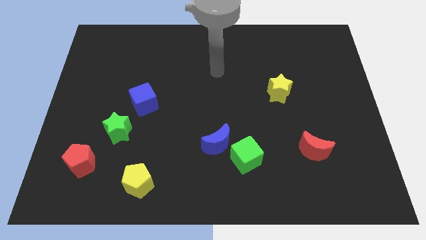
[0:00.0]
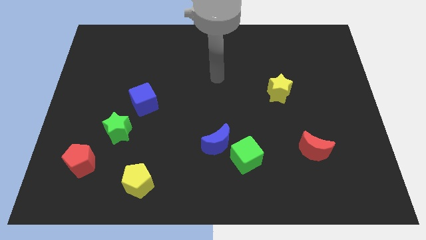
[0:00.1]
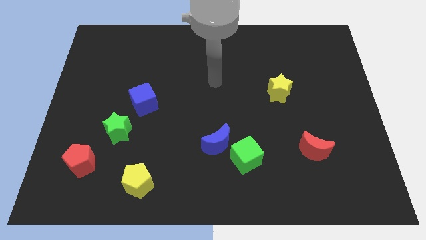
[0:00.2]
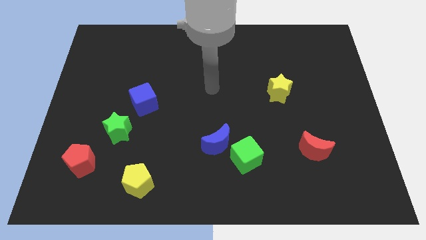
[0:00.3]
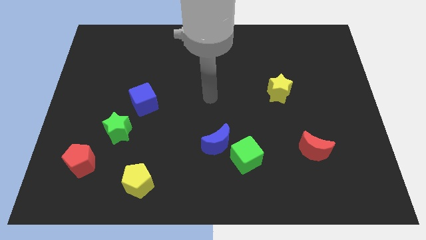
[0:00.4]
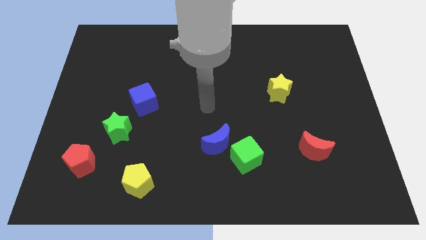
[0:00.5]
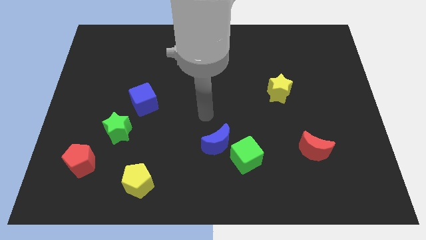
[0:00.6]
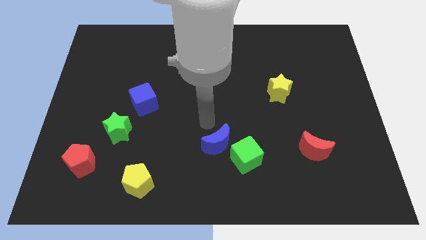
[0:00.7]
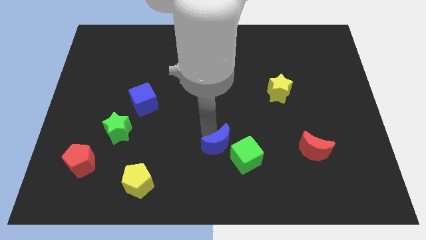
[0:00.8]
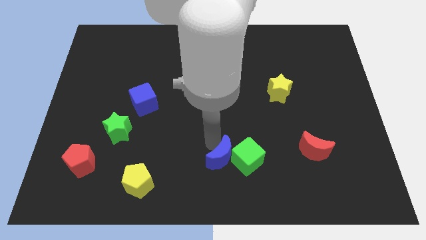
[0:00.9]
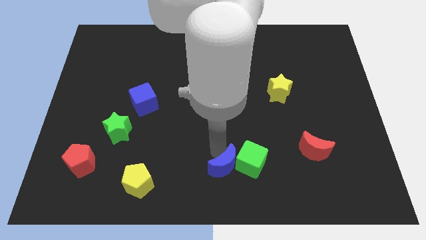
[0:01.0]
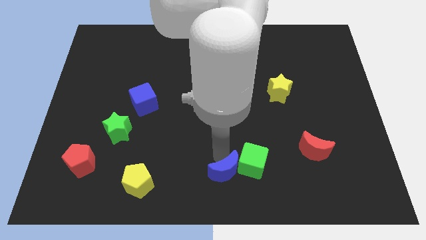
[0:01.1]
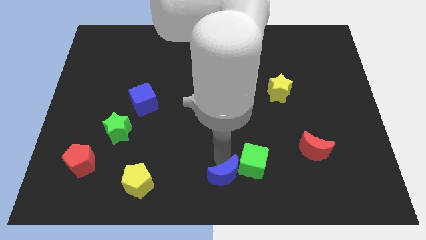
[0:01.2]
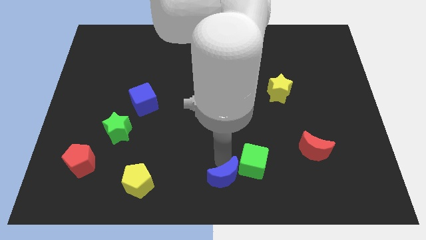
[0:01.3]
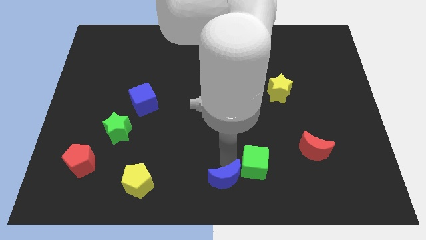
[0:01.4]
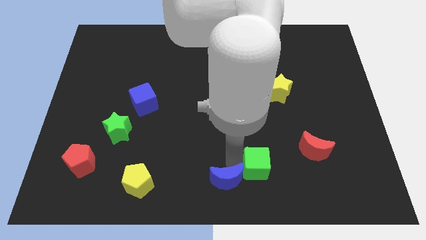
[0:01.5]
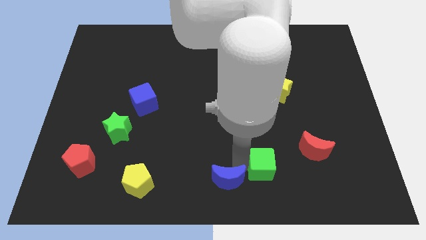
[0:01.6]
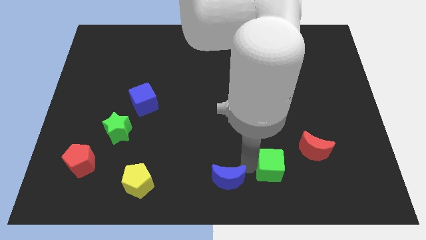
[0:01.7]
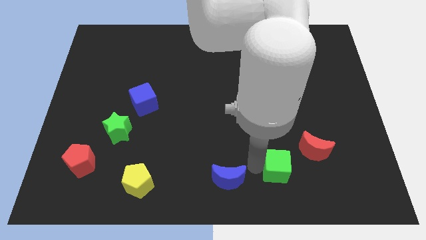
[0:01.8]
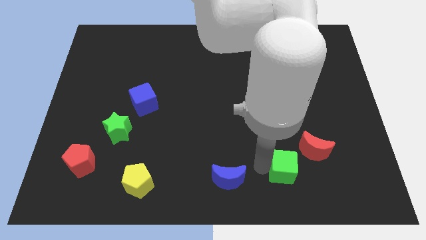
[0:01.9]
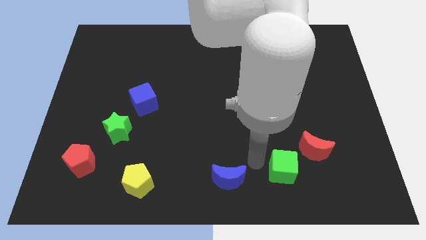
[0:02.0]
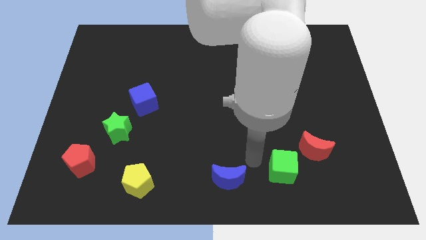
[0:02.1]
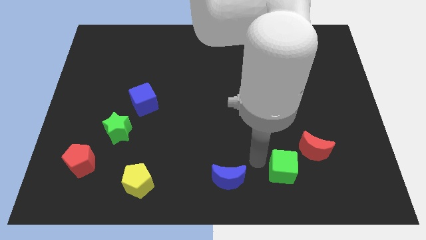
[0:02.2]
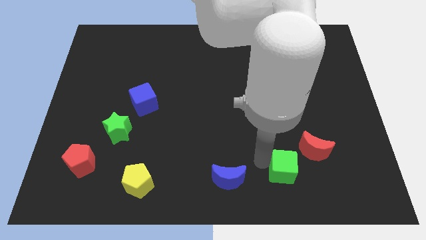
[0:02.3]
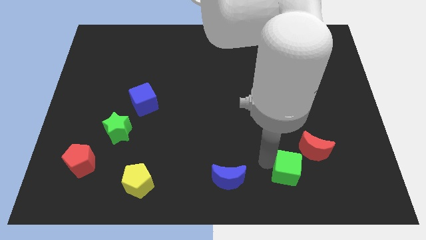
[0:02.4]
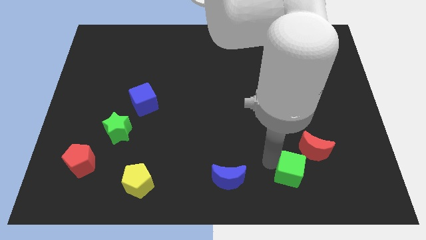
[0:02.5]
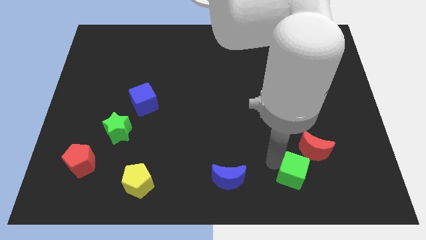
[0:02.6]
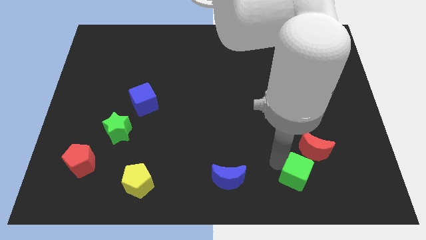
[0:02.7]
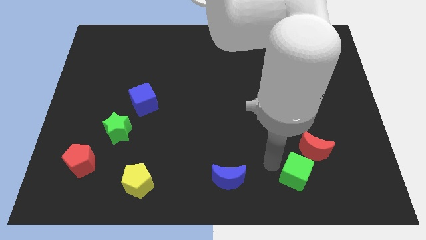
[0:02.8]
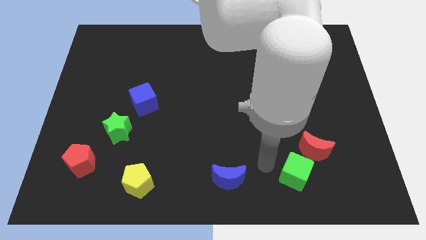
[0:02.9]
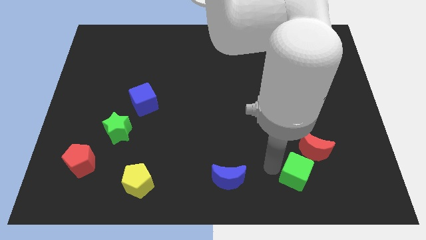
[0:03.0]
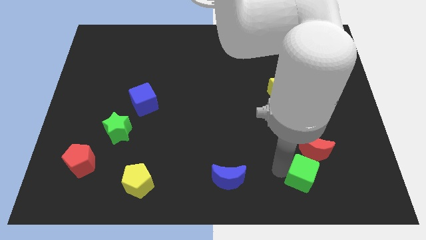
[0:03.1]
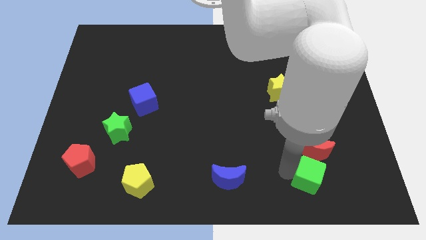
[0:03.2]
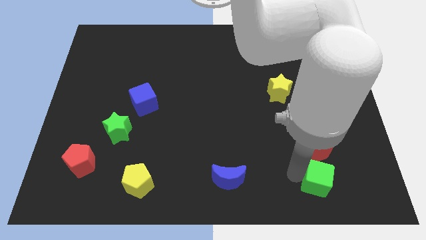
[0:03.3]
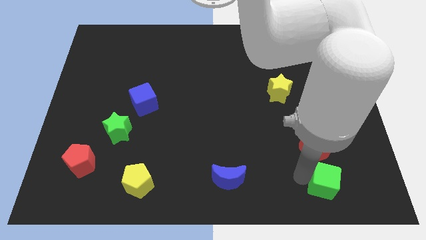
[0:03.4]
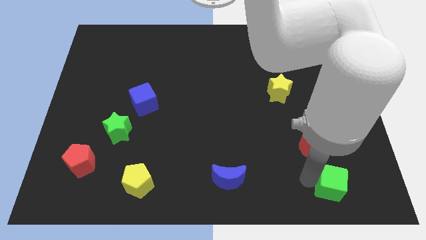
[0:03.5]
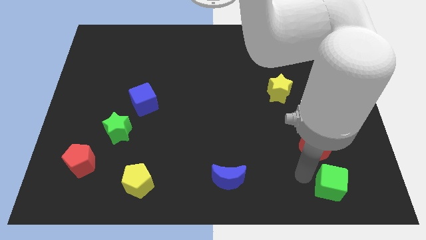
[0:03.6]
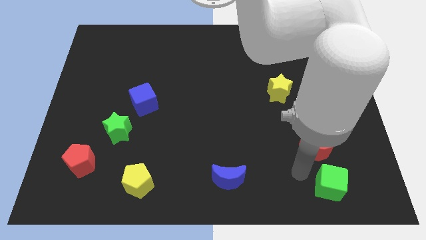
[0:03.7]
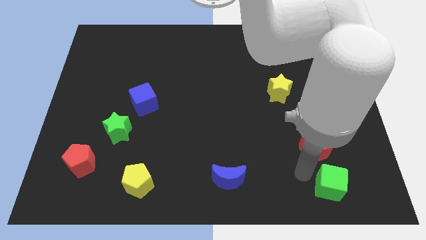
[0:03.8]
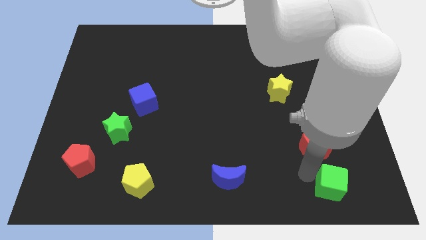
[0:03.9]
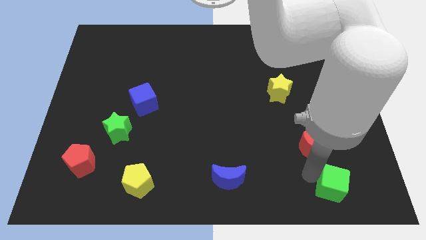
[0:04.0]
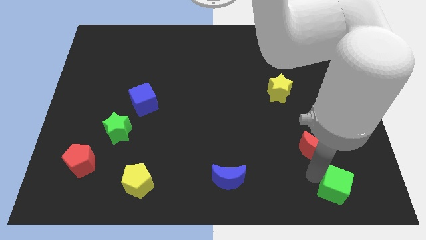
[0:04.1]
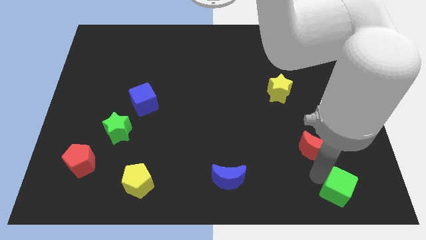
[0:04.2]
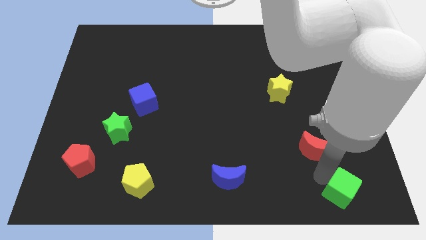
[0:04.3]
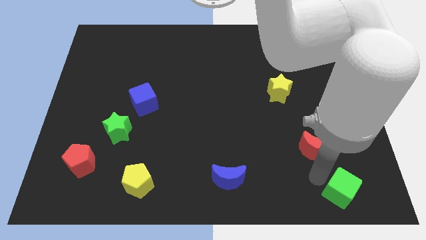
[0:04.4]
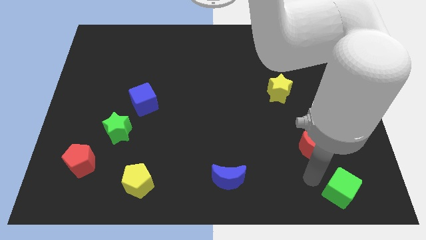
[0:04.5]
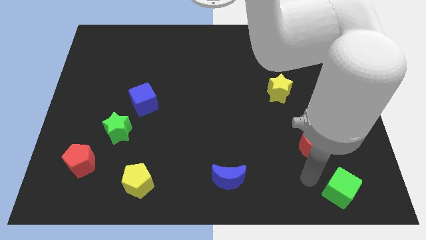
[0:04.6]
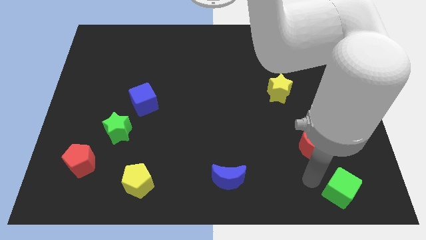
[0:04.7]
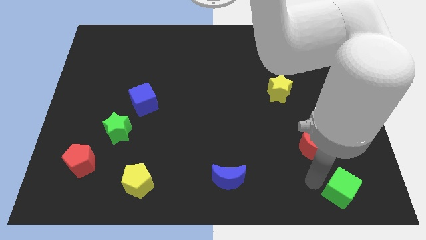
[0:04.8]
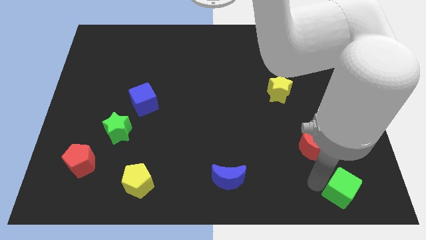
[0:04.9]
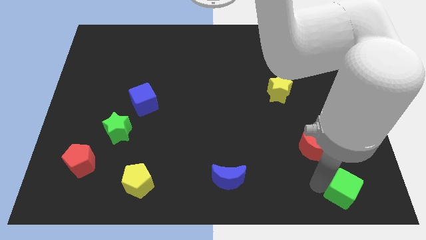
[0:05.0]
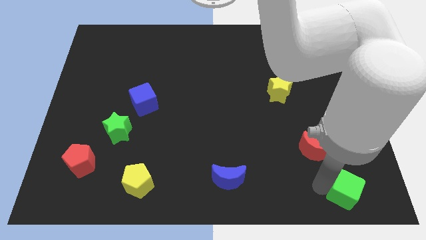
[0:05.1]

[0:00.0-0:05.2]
push the green cube to the lower right corner

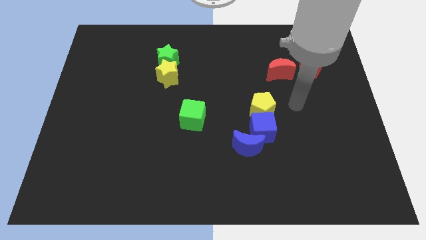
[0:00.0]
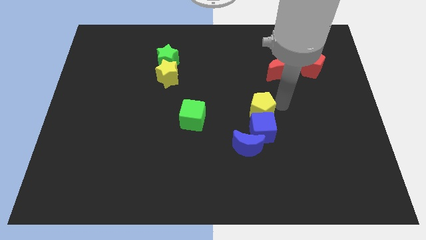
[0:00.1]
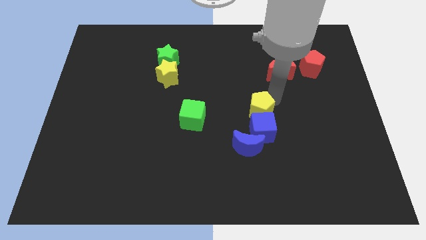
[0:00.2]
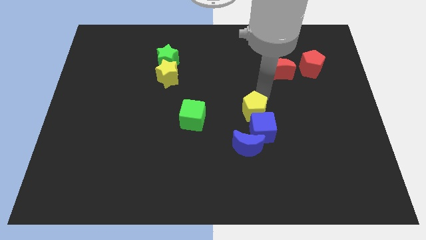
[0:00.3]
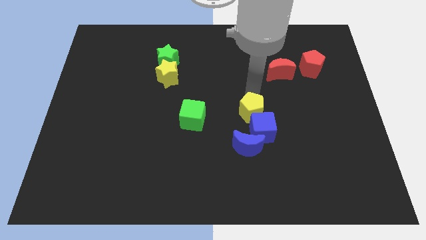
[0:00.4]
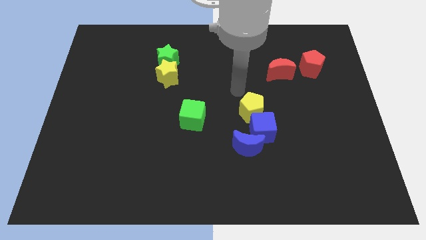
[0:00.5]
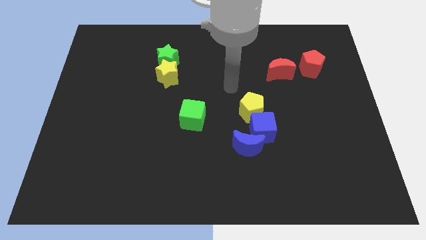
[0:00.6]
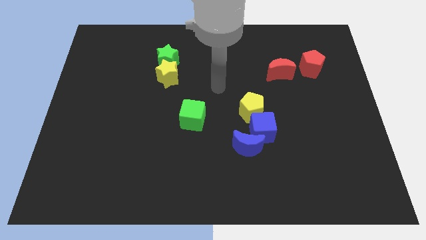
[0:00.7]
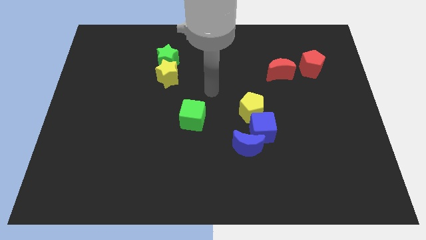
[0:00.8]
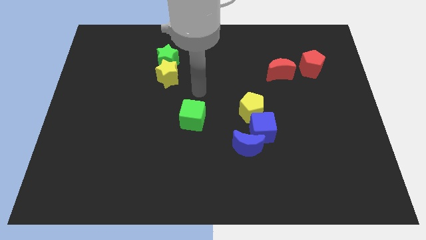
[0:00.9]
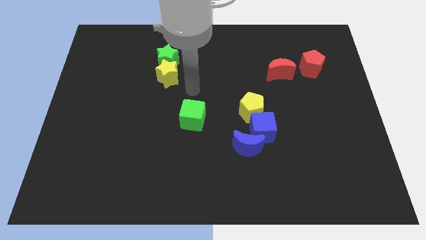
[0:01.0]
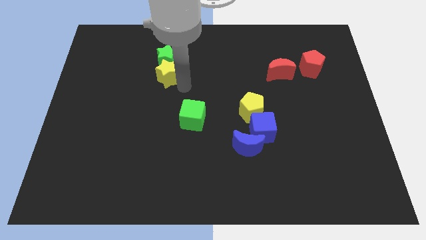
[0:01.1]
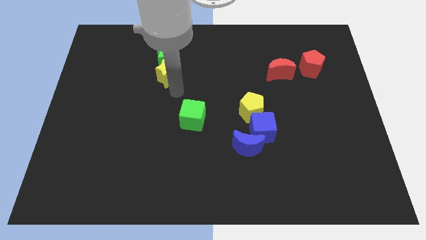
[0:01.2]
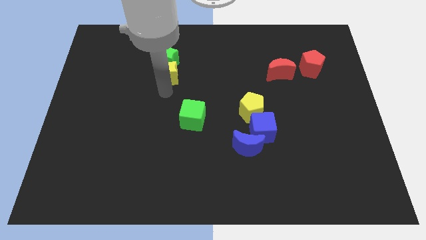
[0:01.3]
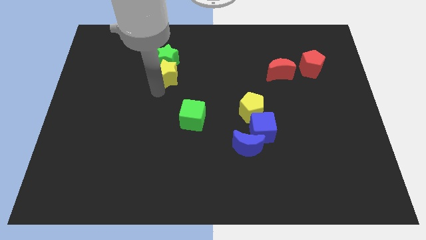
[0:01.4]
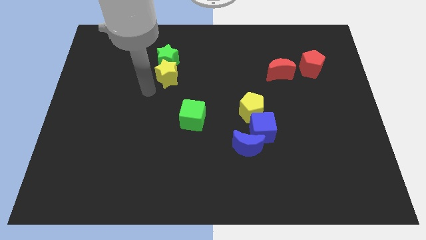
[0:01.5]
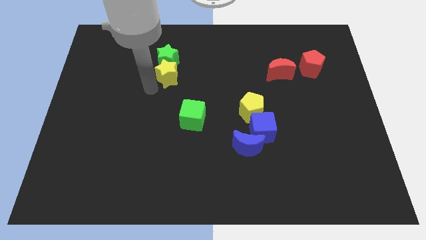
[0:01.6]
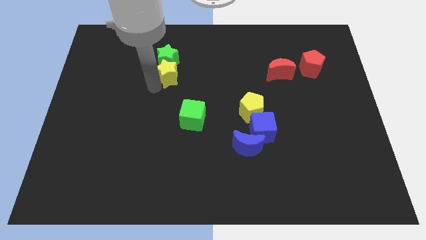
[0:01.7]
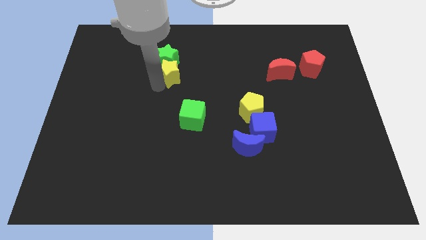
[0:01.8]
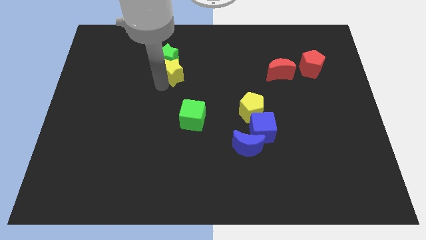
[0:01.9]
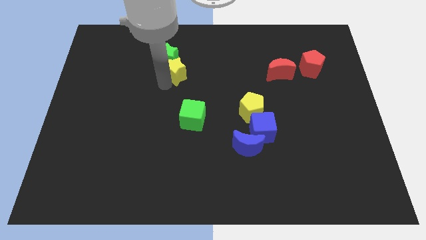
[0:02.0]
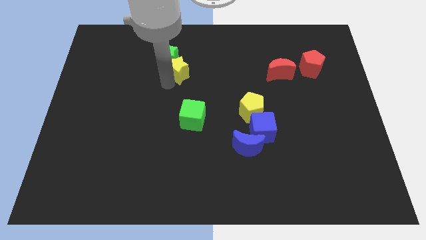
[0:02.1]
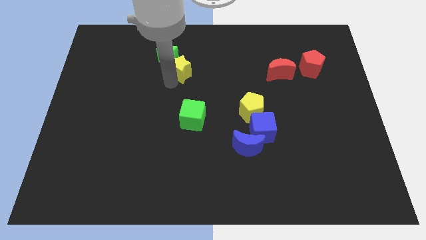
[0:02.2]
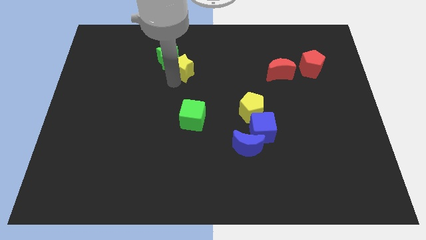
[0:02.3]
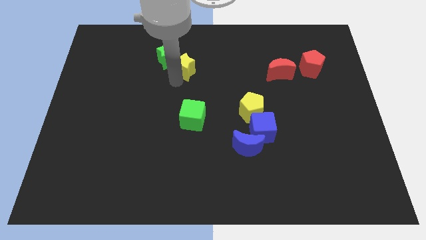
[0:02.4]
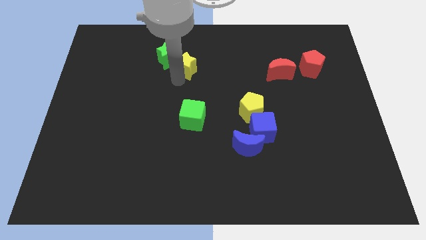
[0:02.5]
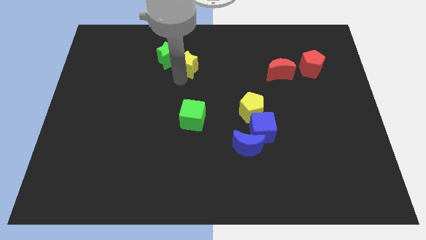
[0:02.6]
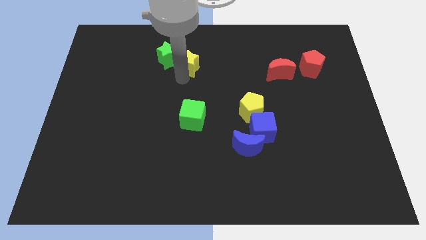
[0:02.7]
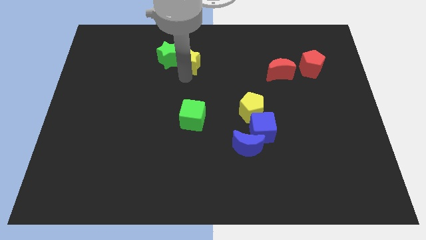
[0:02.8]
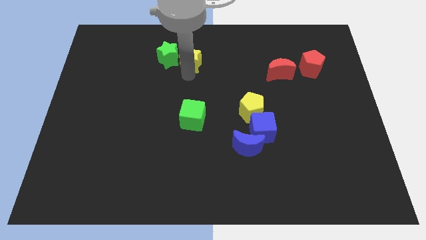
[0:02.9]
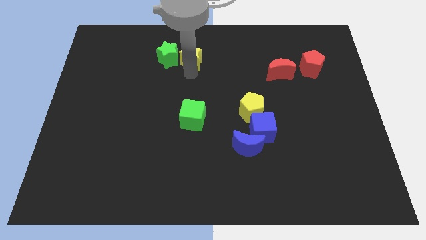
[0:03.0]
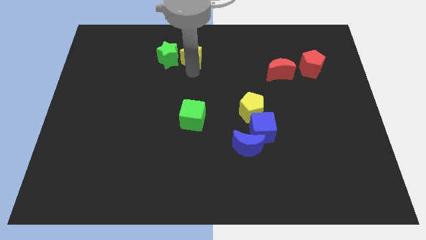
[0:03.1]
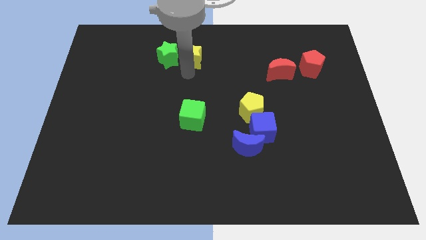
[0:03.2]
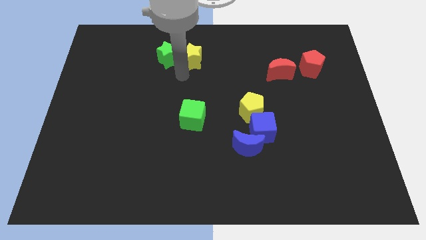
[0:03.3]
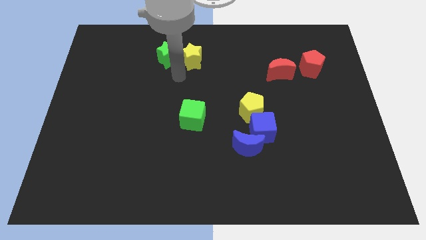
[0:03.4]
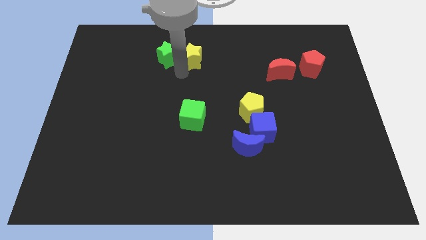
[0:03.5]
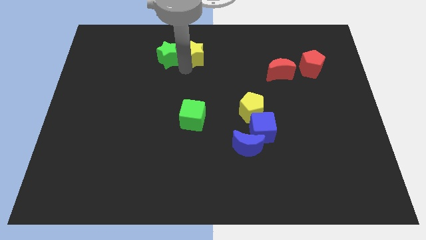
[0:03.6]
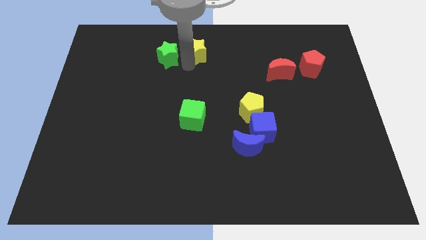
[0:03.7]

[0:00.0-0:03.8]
put the yellow star to the top
